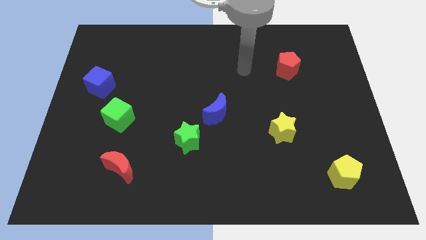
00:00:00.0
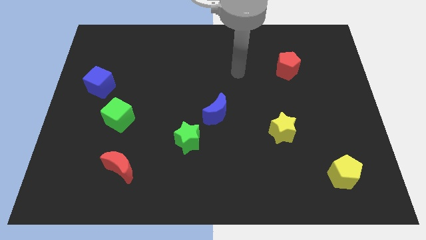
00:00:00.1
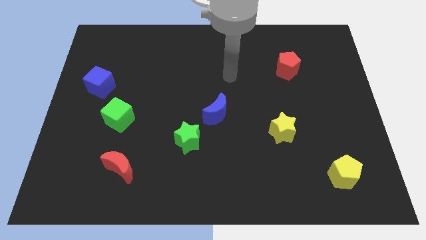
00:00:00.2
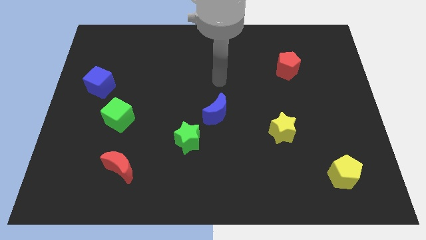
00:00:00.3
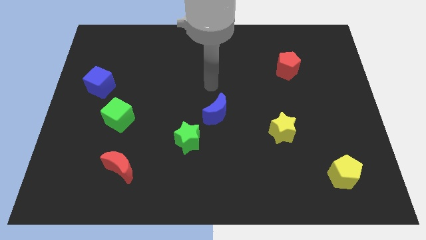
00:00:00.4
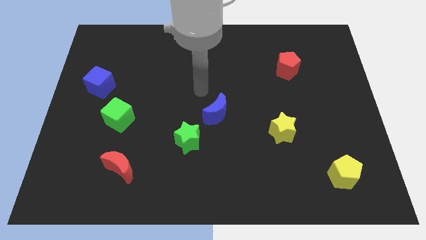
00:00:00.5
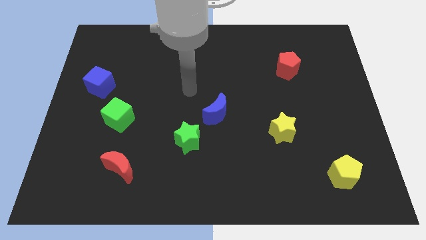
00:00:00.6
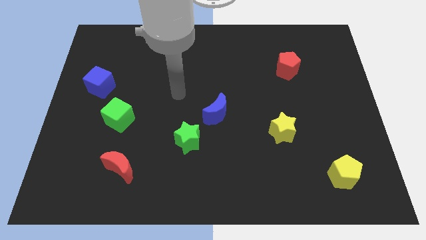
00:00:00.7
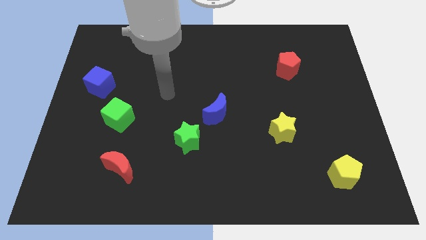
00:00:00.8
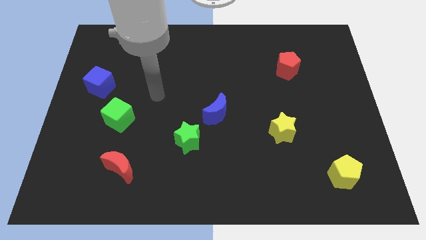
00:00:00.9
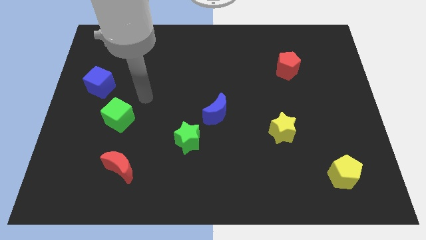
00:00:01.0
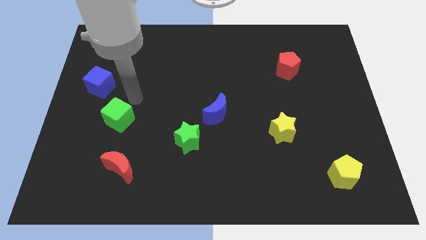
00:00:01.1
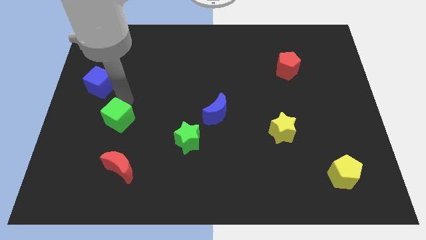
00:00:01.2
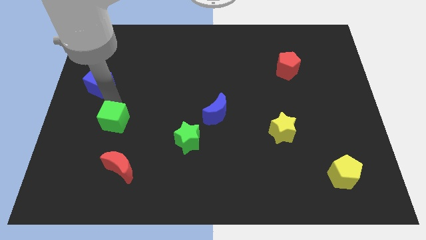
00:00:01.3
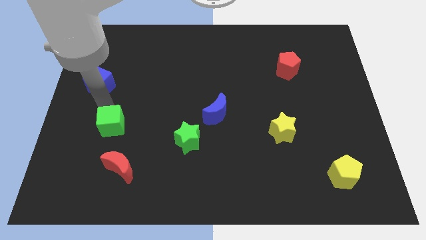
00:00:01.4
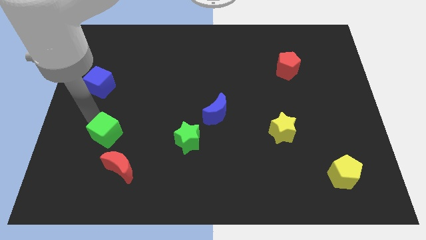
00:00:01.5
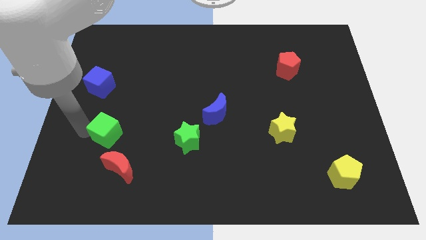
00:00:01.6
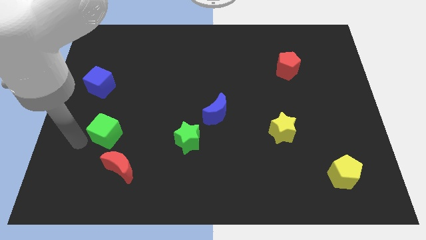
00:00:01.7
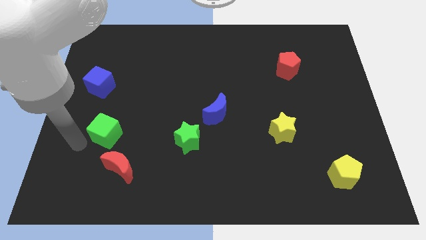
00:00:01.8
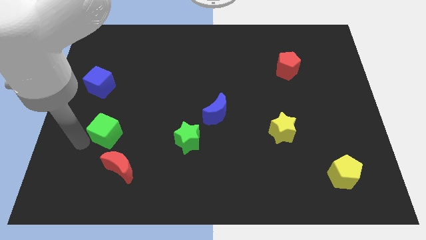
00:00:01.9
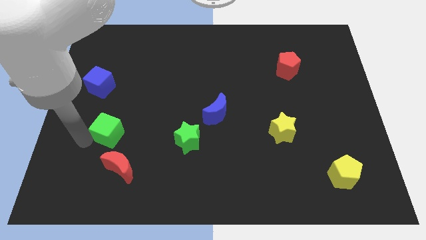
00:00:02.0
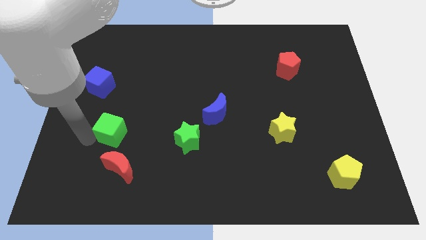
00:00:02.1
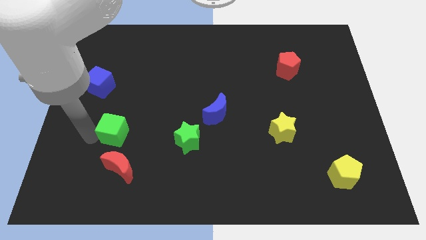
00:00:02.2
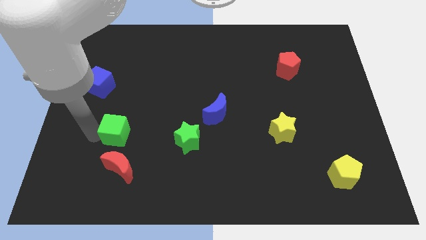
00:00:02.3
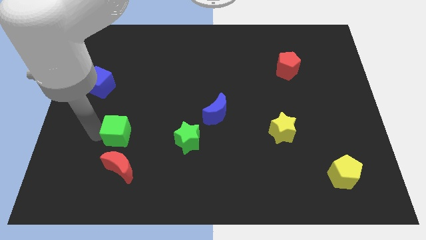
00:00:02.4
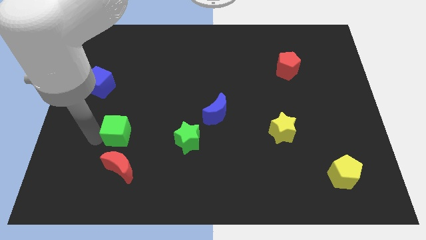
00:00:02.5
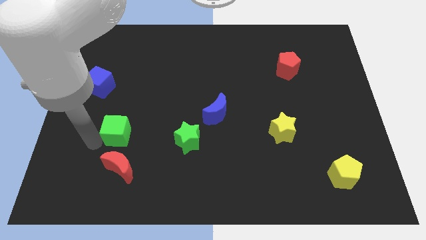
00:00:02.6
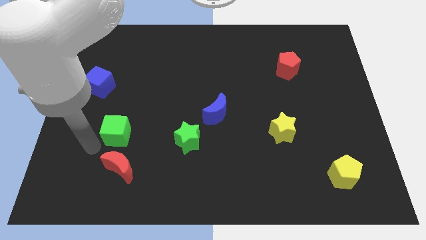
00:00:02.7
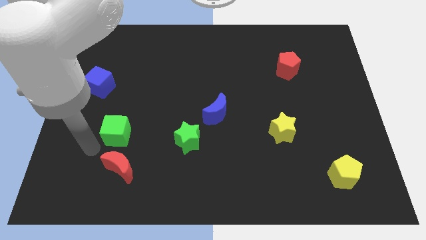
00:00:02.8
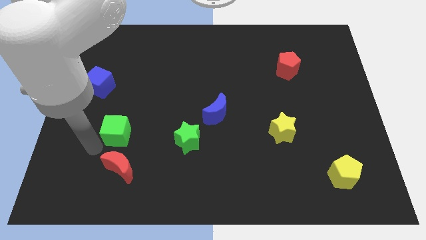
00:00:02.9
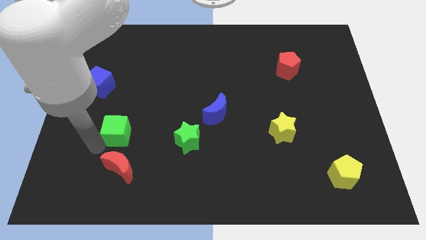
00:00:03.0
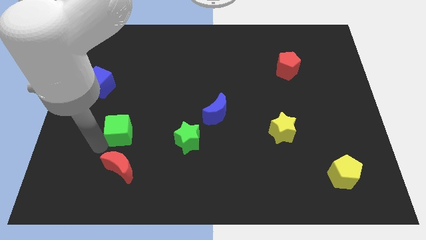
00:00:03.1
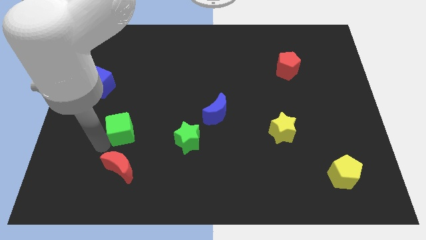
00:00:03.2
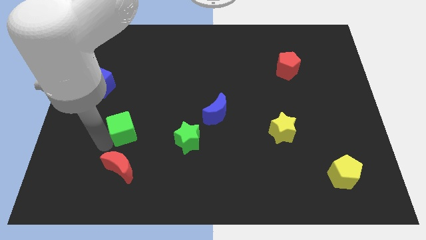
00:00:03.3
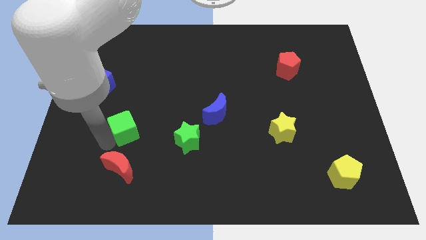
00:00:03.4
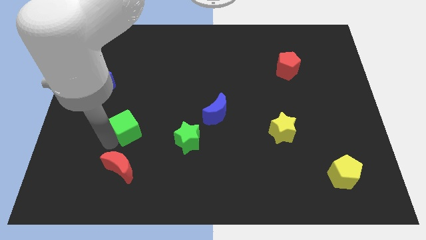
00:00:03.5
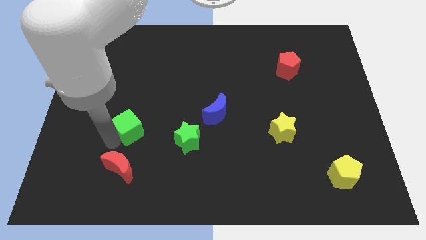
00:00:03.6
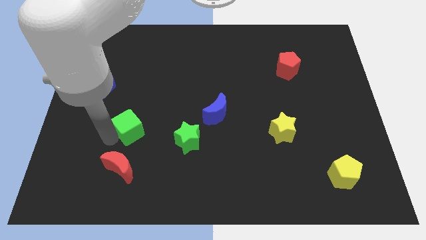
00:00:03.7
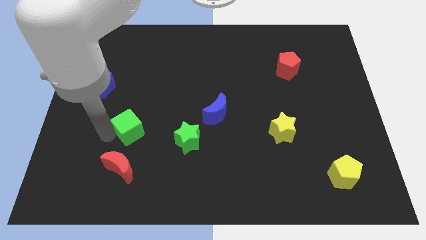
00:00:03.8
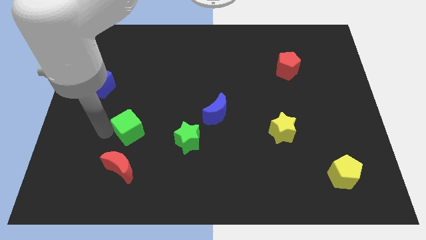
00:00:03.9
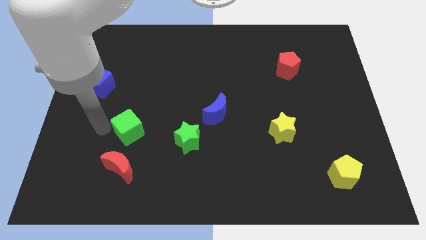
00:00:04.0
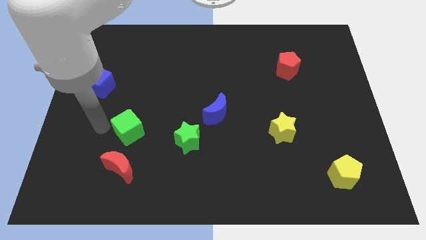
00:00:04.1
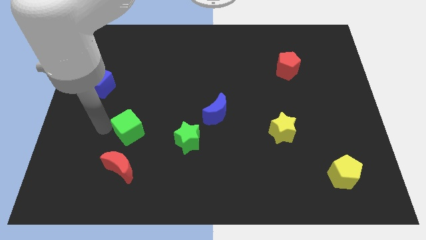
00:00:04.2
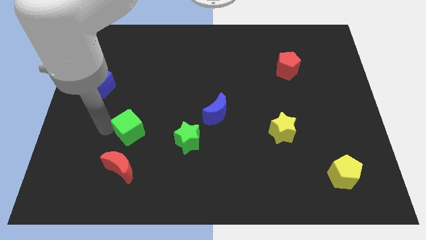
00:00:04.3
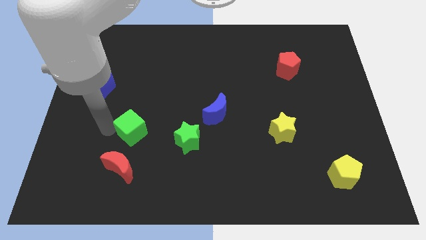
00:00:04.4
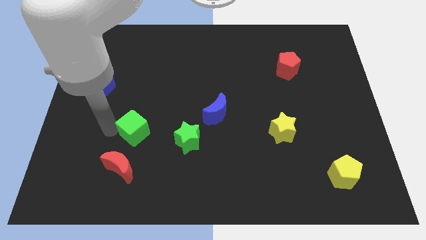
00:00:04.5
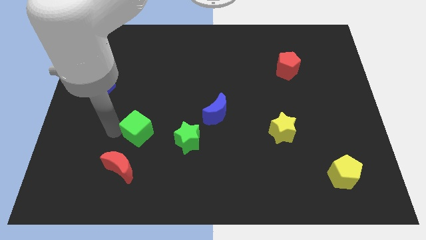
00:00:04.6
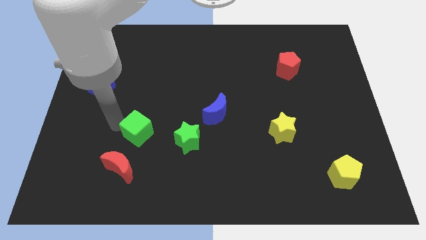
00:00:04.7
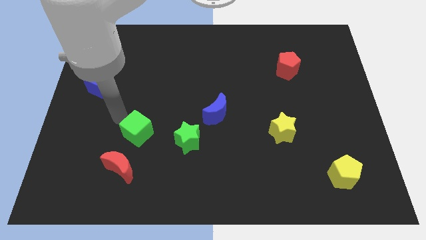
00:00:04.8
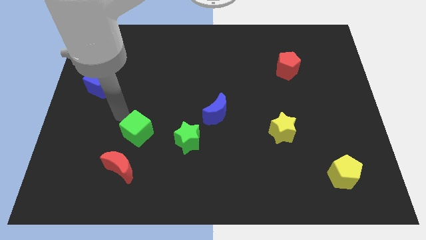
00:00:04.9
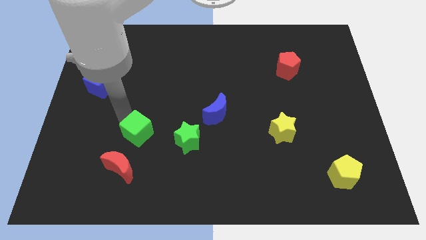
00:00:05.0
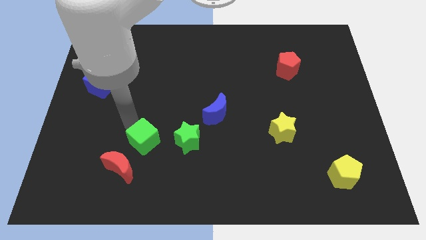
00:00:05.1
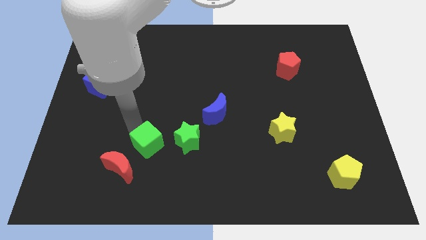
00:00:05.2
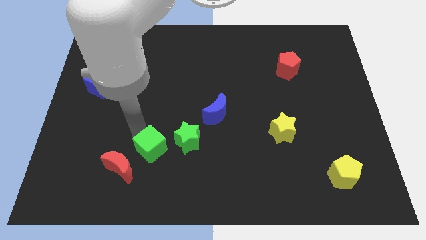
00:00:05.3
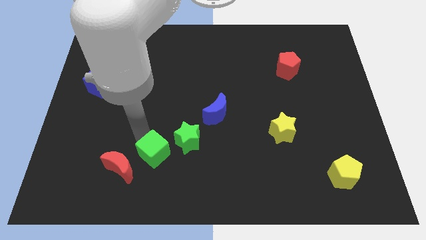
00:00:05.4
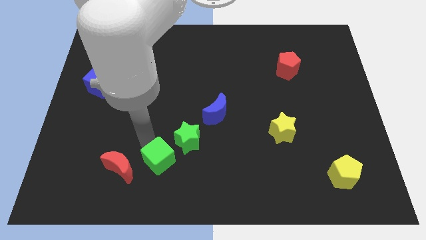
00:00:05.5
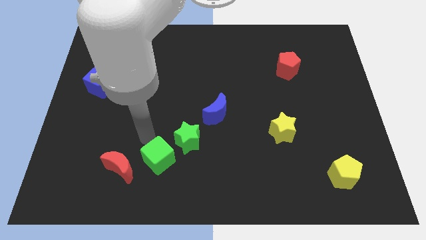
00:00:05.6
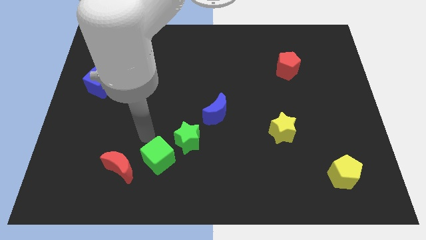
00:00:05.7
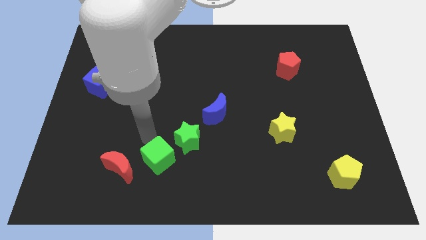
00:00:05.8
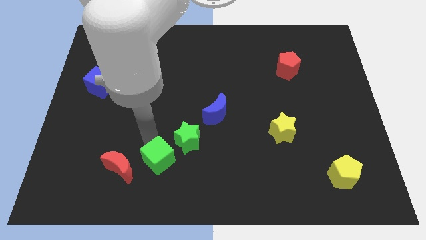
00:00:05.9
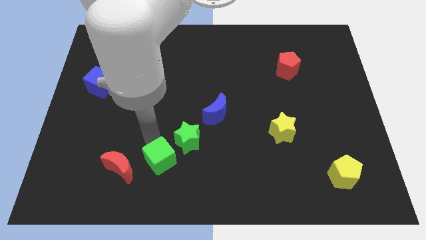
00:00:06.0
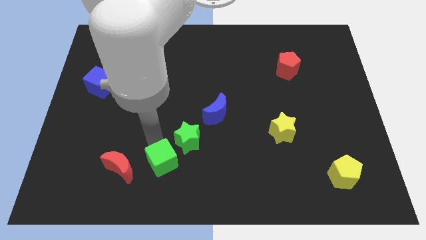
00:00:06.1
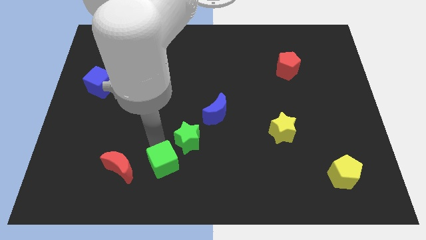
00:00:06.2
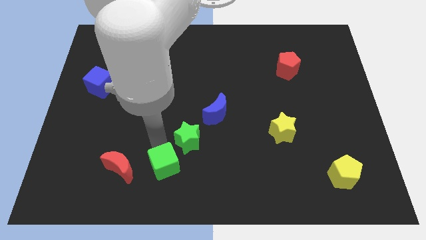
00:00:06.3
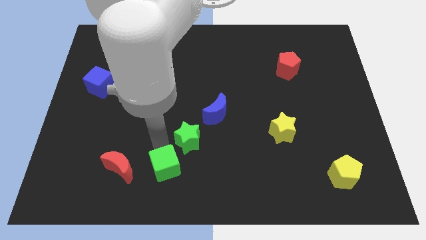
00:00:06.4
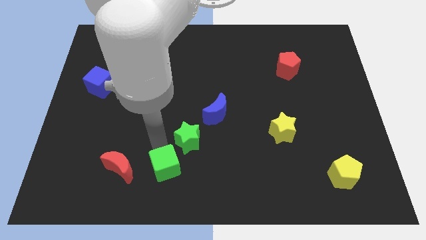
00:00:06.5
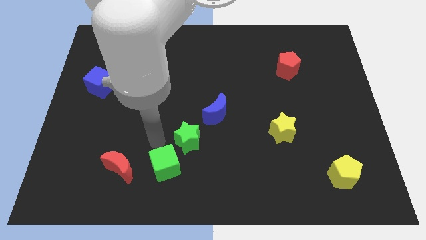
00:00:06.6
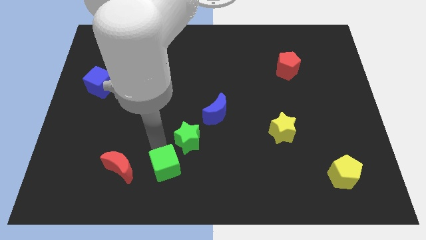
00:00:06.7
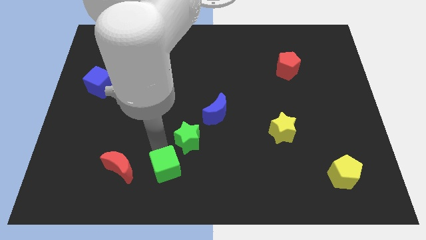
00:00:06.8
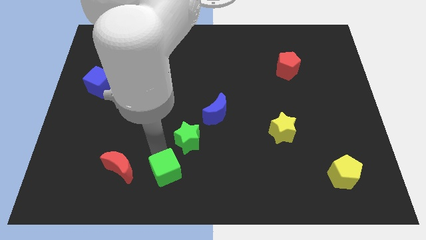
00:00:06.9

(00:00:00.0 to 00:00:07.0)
move the green cube to the bottom side
